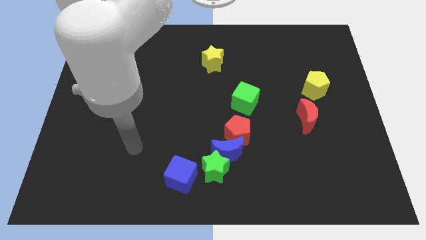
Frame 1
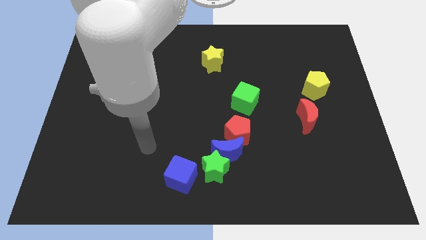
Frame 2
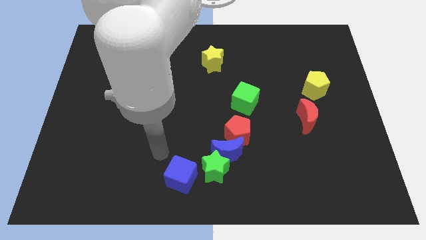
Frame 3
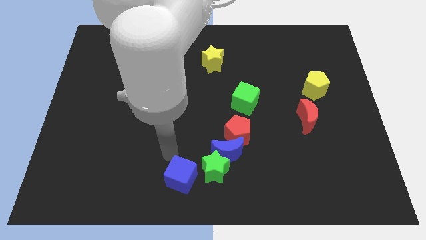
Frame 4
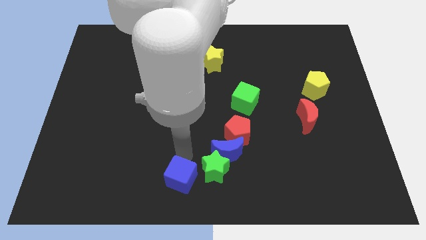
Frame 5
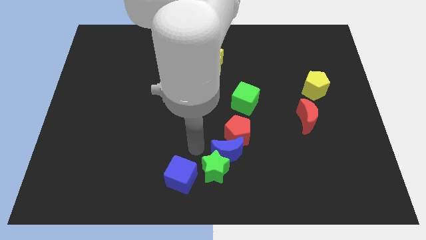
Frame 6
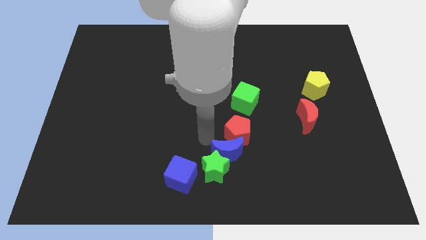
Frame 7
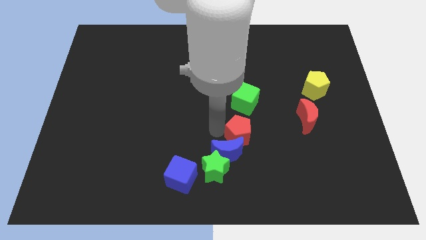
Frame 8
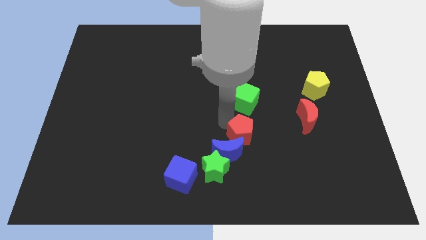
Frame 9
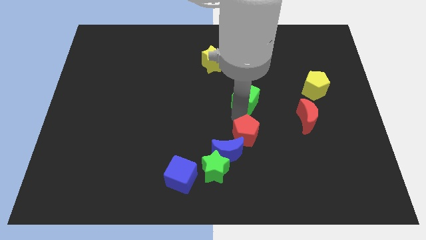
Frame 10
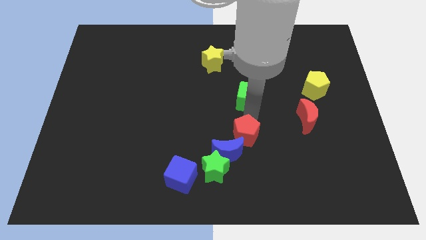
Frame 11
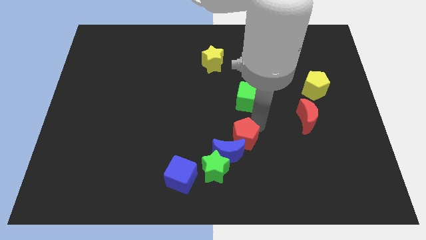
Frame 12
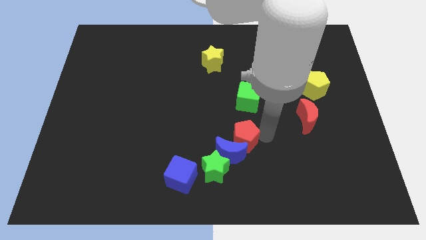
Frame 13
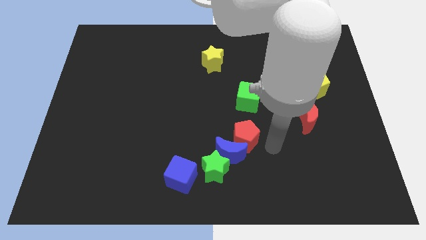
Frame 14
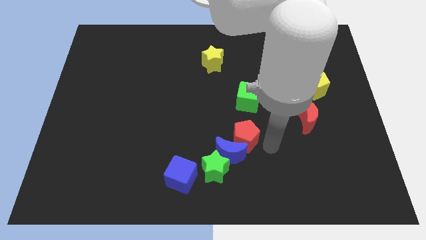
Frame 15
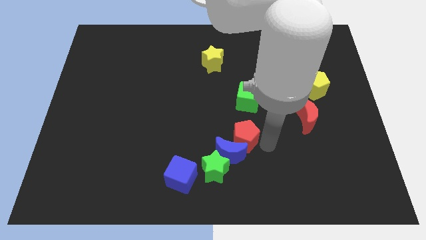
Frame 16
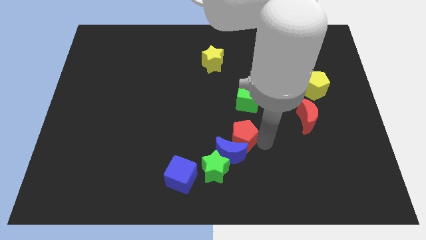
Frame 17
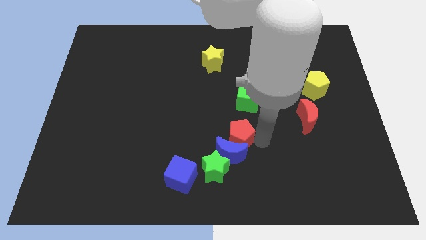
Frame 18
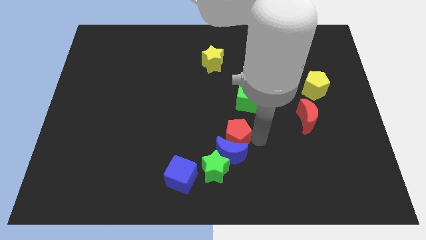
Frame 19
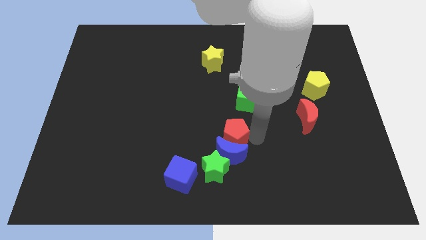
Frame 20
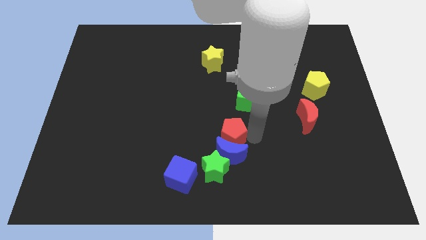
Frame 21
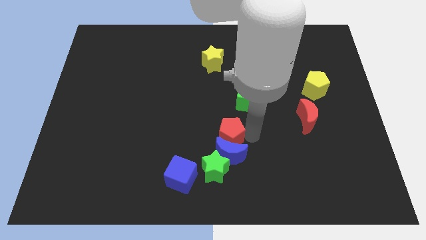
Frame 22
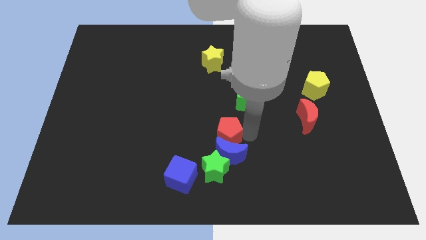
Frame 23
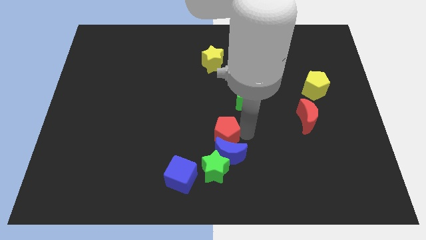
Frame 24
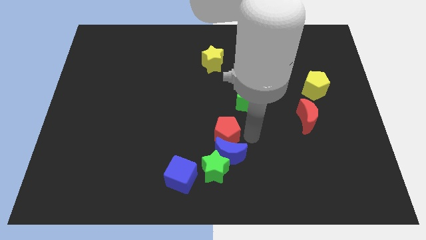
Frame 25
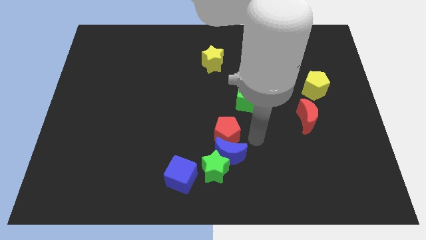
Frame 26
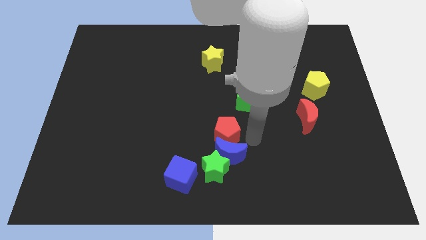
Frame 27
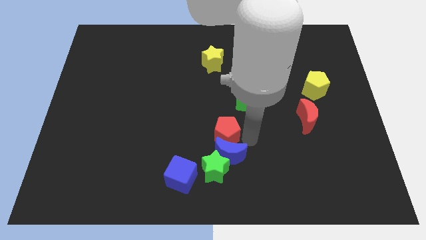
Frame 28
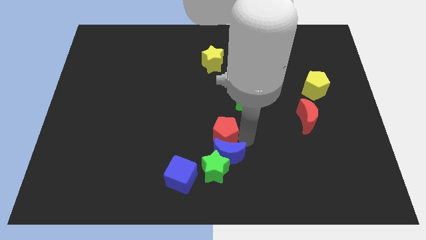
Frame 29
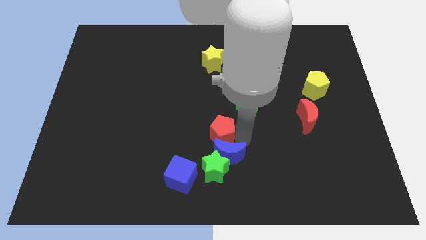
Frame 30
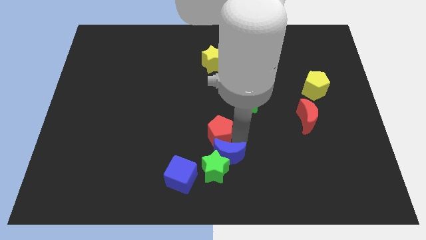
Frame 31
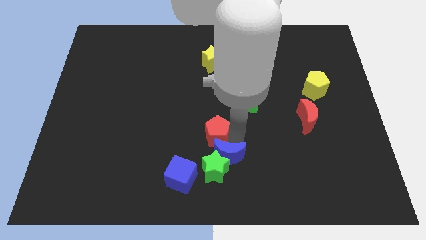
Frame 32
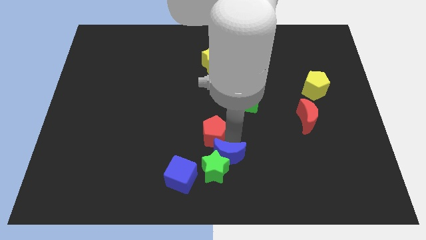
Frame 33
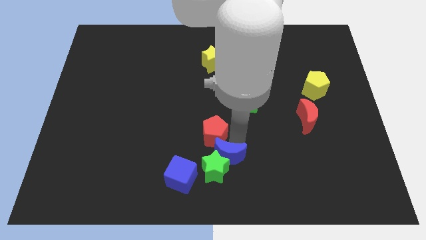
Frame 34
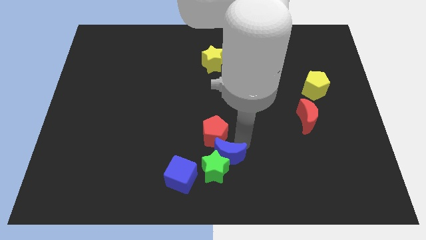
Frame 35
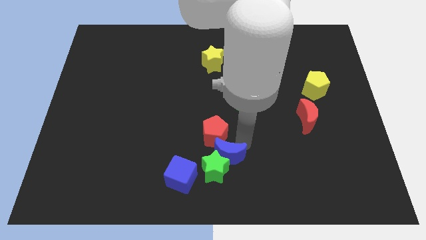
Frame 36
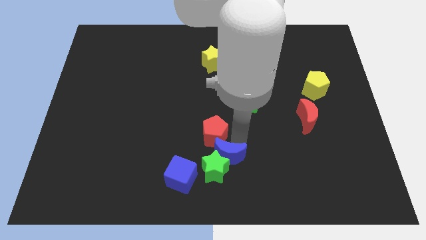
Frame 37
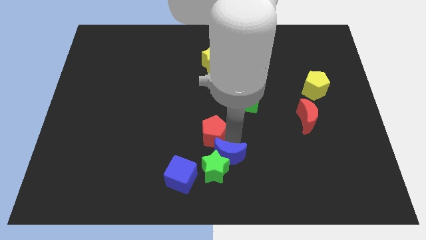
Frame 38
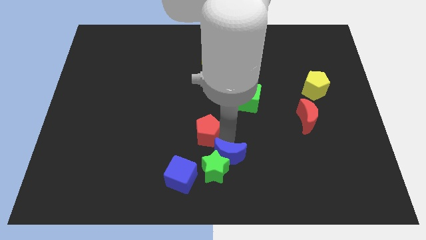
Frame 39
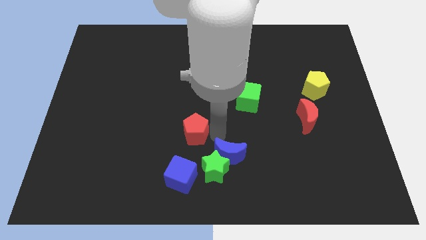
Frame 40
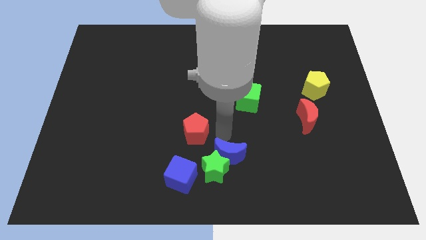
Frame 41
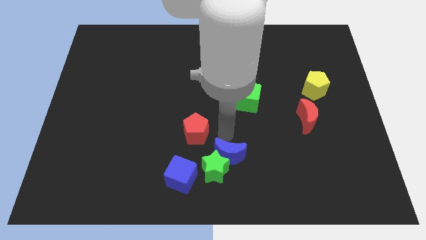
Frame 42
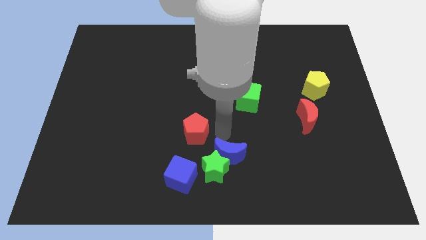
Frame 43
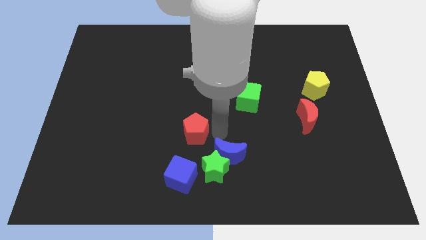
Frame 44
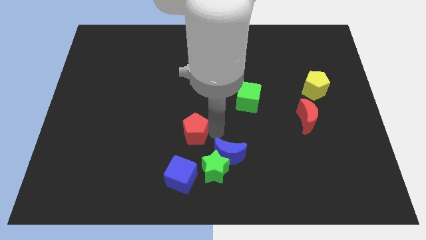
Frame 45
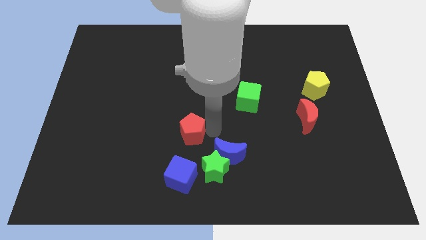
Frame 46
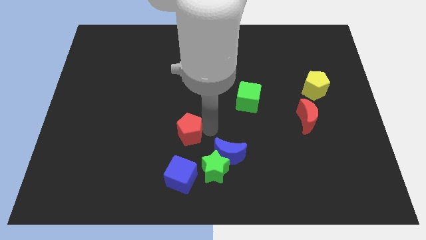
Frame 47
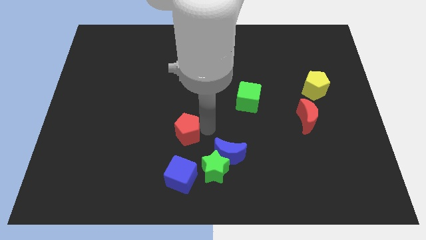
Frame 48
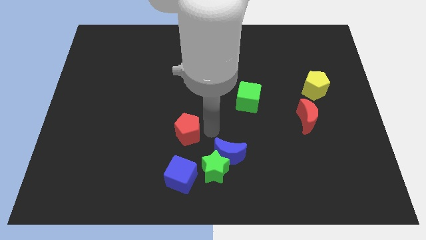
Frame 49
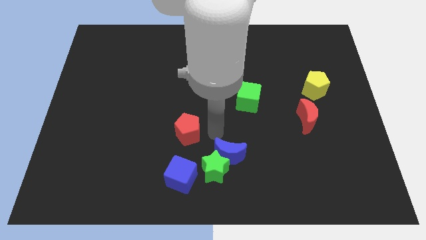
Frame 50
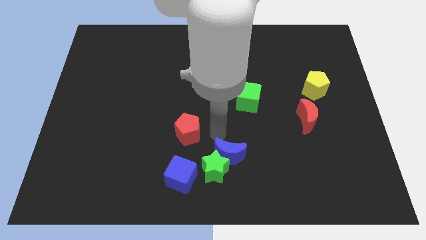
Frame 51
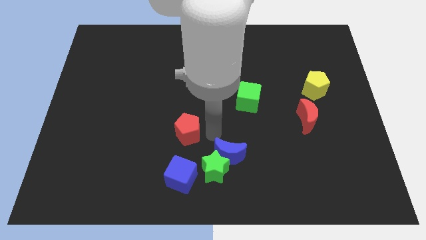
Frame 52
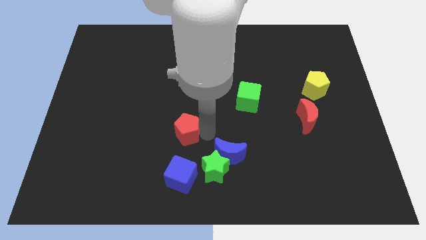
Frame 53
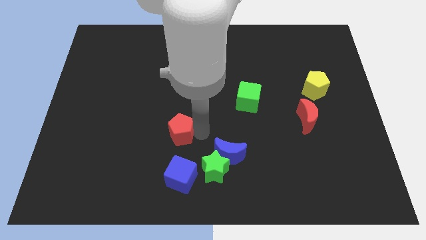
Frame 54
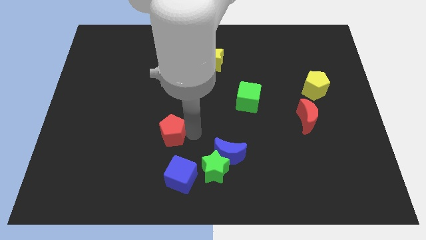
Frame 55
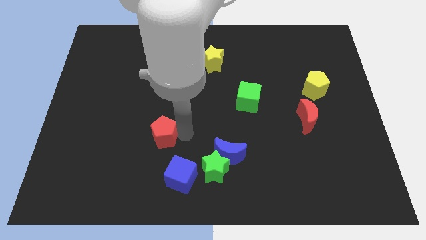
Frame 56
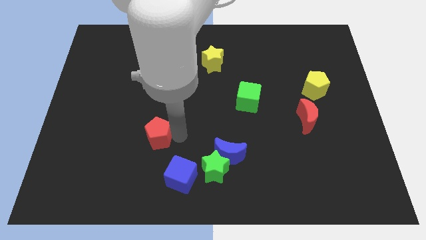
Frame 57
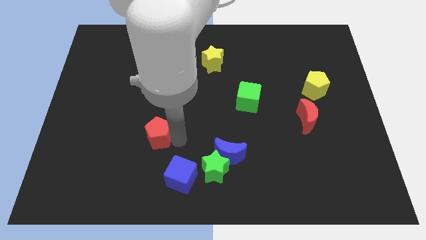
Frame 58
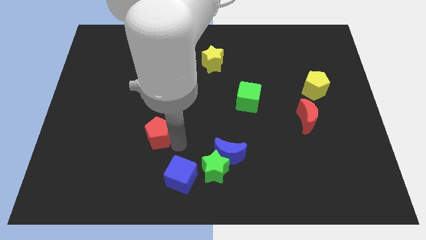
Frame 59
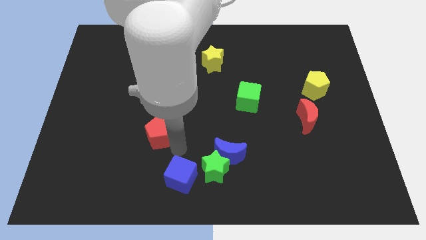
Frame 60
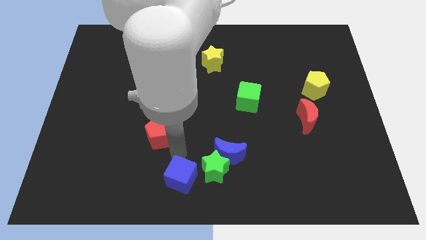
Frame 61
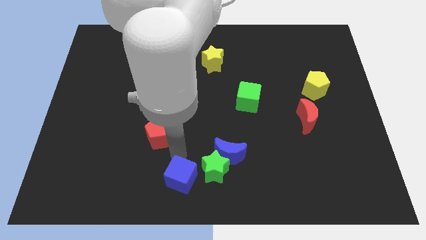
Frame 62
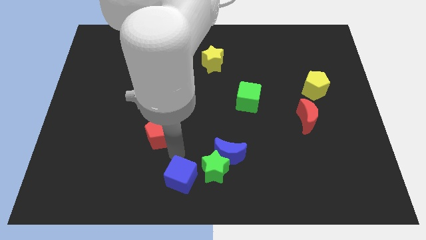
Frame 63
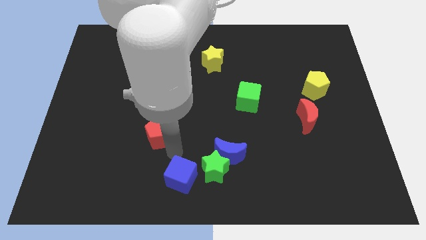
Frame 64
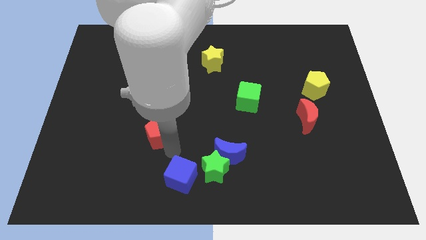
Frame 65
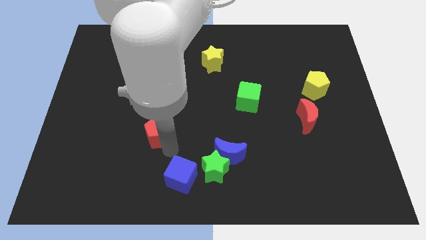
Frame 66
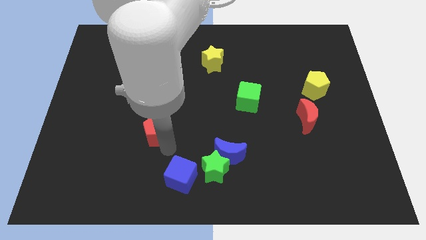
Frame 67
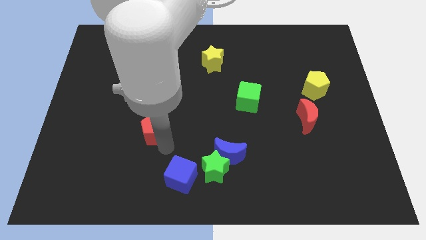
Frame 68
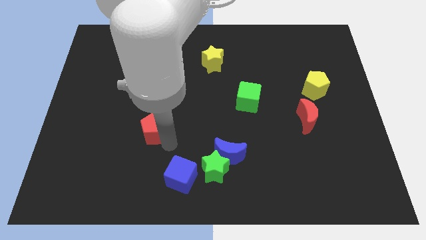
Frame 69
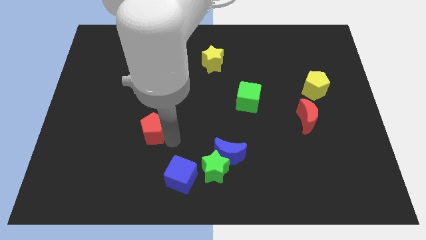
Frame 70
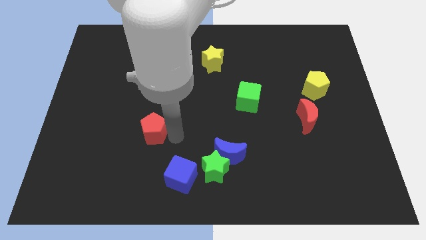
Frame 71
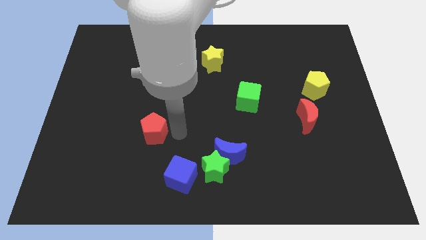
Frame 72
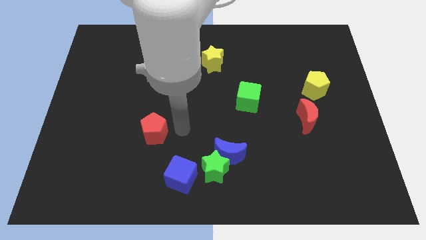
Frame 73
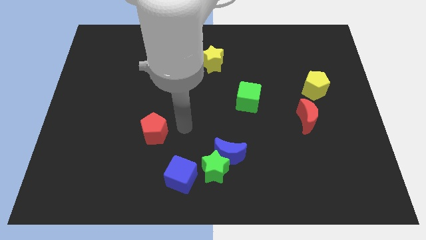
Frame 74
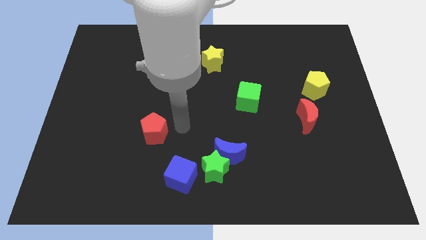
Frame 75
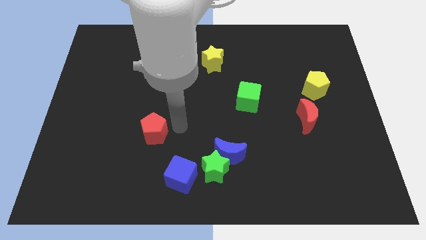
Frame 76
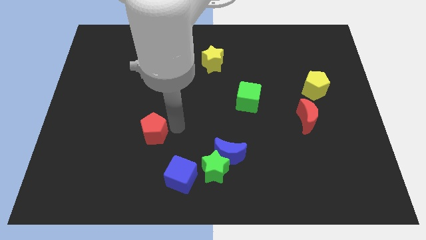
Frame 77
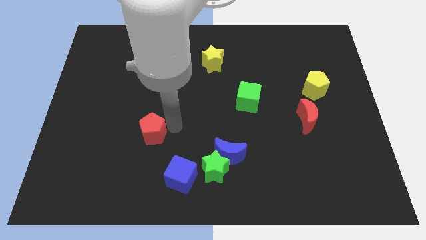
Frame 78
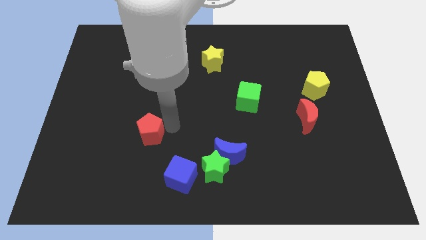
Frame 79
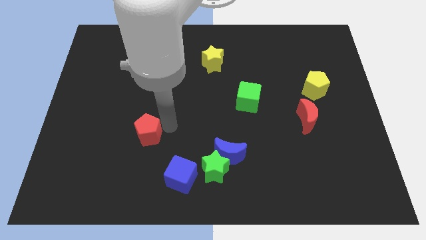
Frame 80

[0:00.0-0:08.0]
push the red pentagon to the left

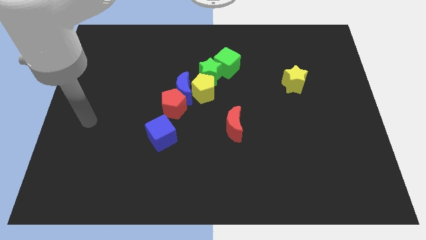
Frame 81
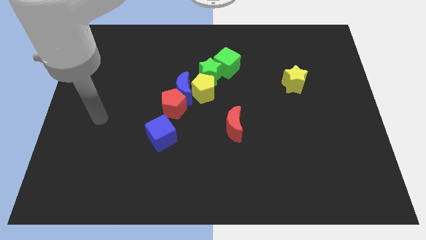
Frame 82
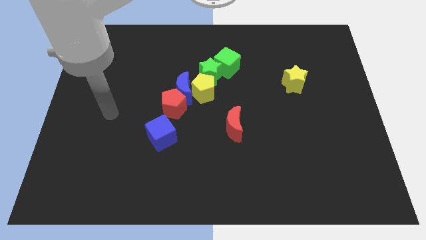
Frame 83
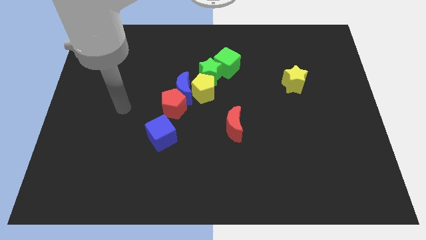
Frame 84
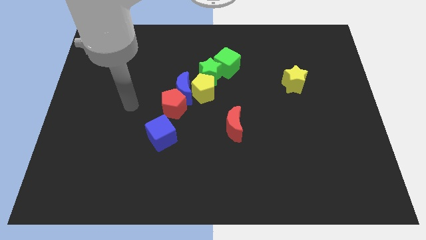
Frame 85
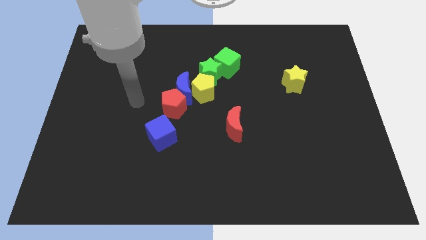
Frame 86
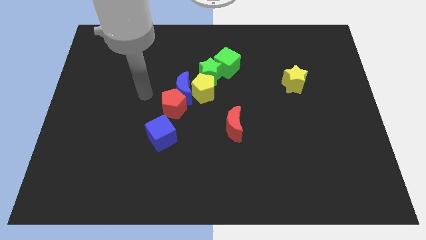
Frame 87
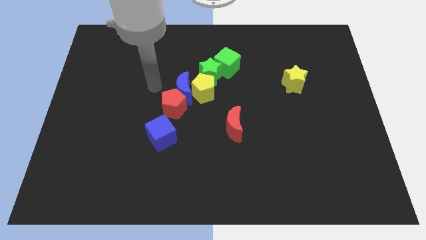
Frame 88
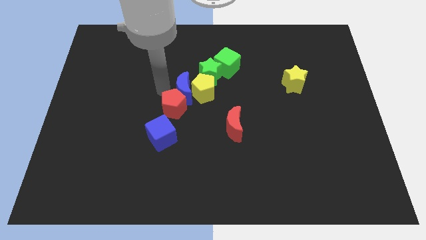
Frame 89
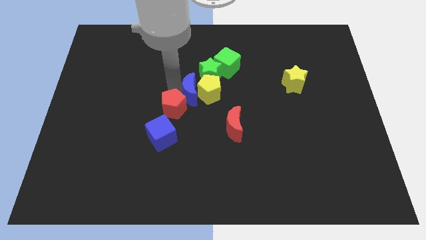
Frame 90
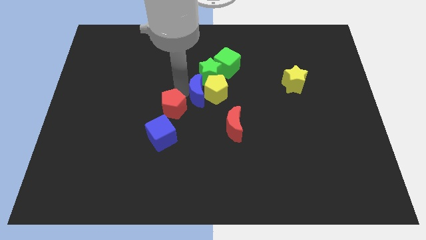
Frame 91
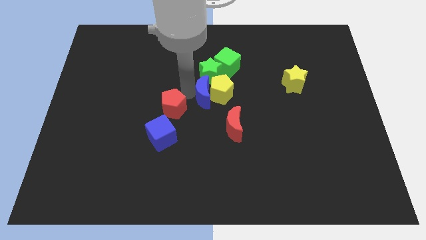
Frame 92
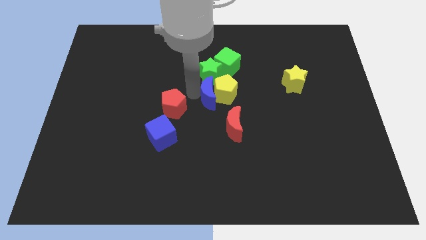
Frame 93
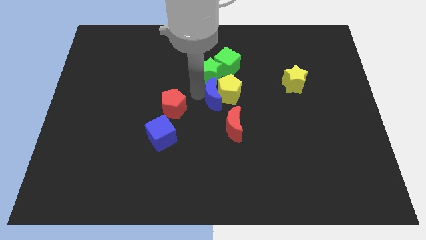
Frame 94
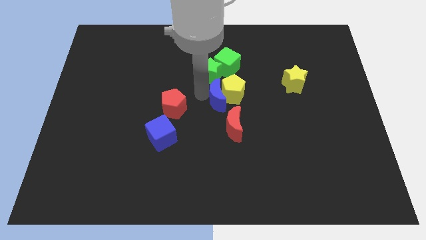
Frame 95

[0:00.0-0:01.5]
slightly push the yellow pentagon to the right
